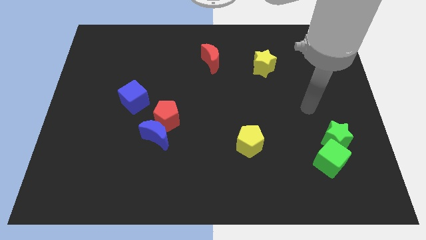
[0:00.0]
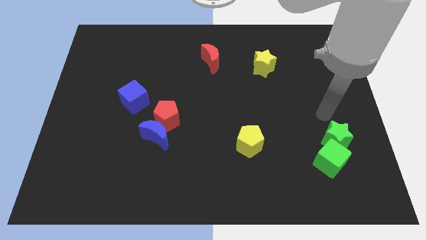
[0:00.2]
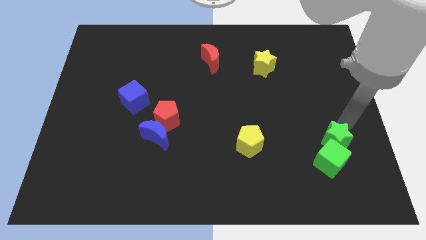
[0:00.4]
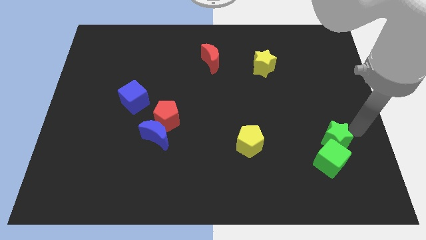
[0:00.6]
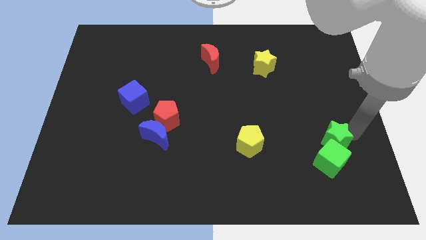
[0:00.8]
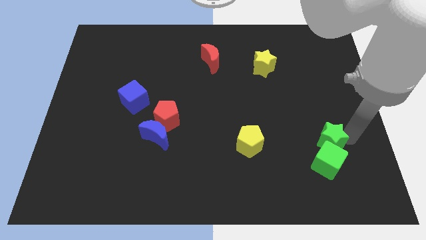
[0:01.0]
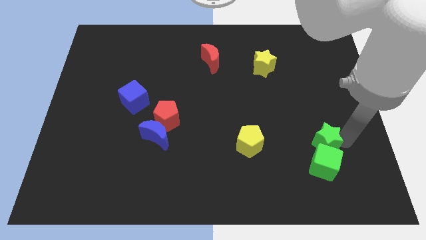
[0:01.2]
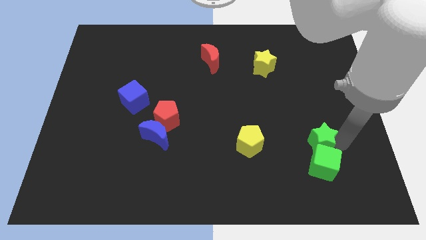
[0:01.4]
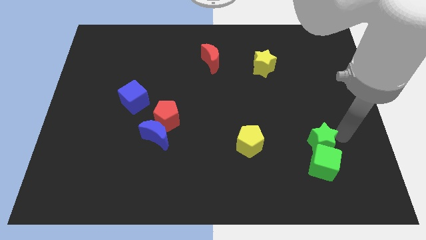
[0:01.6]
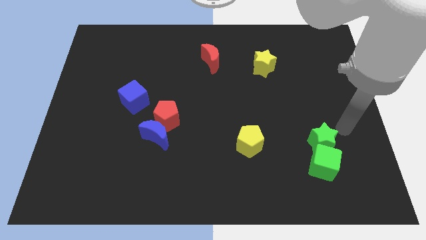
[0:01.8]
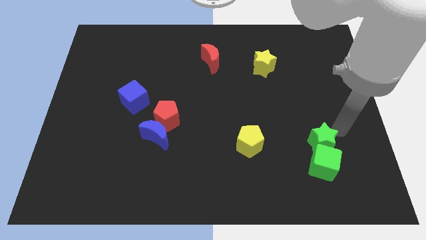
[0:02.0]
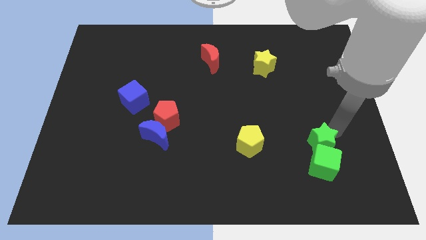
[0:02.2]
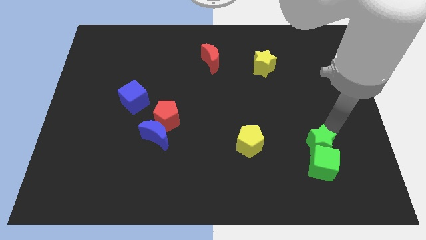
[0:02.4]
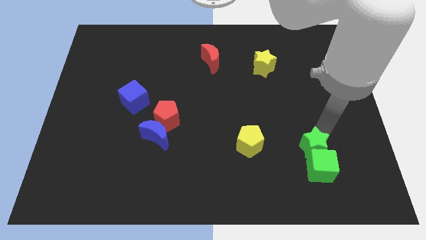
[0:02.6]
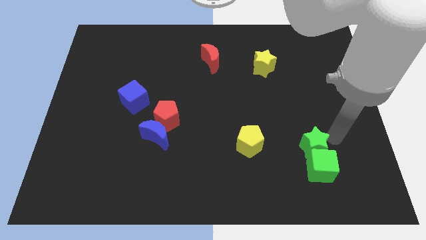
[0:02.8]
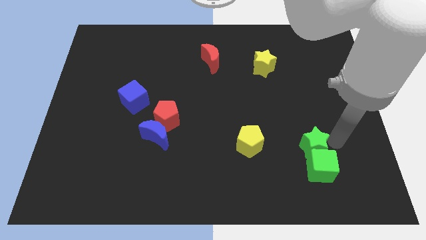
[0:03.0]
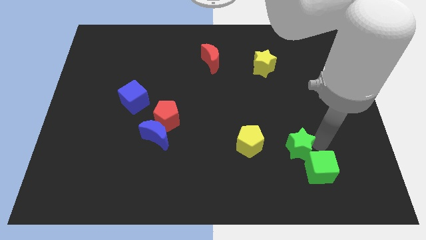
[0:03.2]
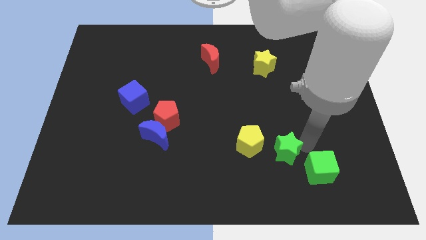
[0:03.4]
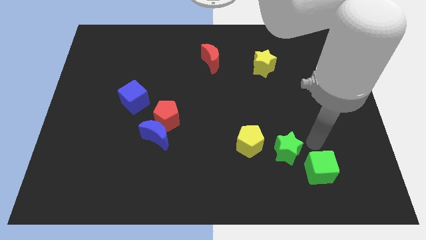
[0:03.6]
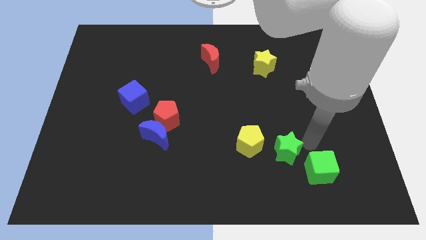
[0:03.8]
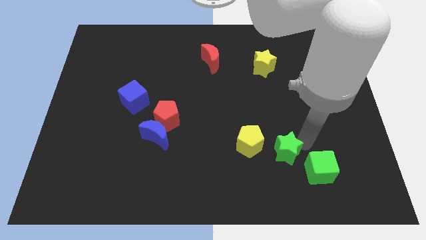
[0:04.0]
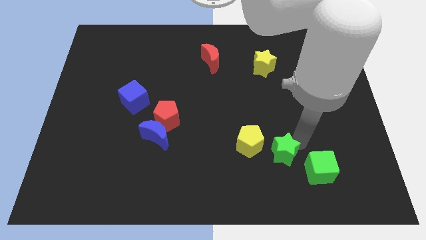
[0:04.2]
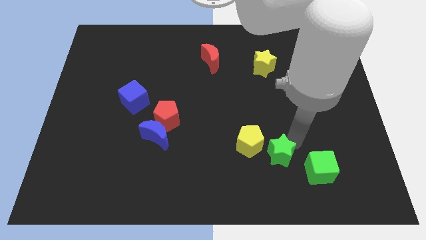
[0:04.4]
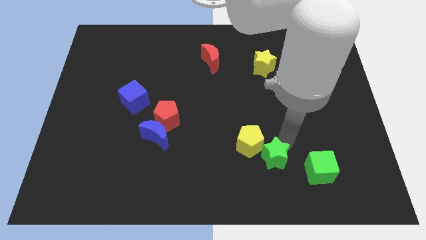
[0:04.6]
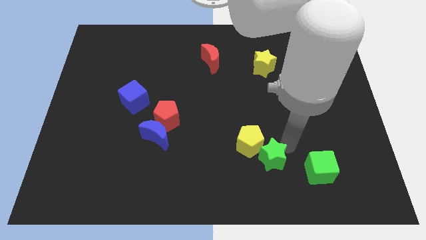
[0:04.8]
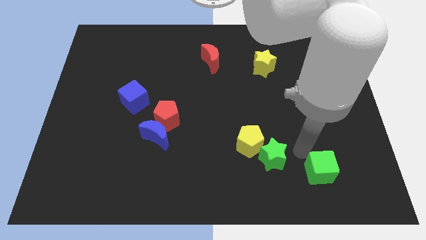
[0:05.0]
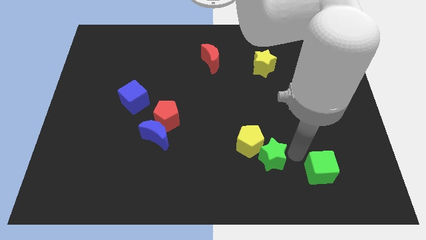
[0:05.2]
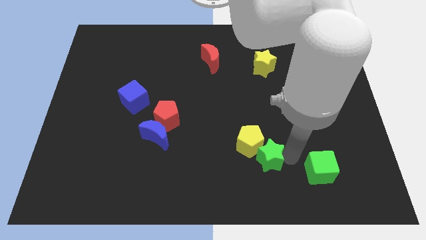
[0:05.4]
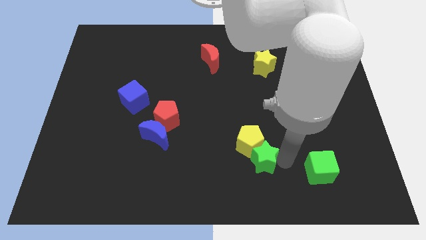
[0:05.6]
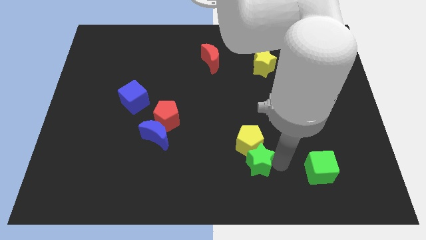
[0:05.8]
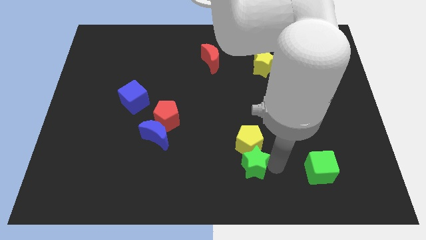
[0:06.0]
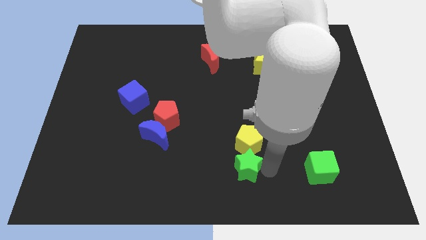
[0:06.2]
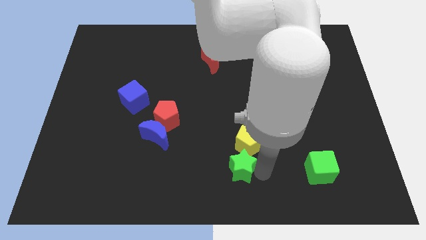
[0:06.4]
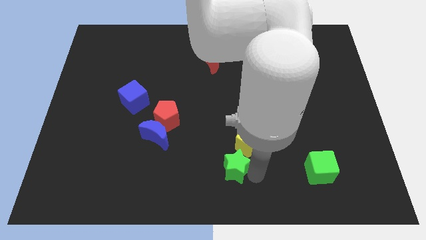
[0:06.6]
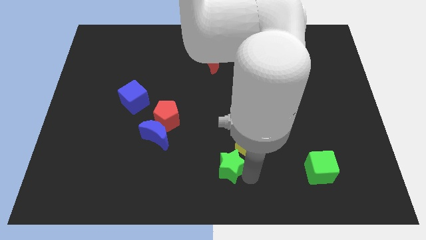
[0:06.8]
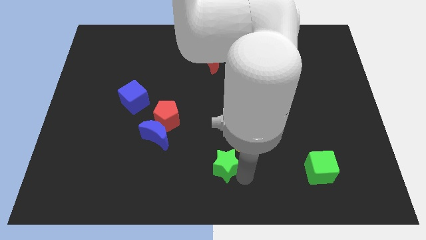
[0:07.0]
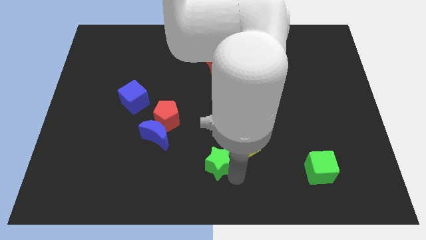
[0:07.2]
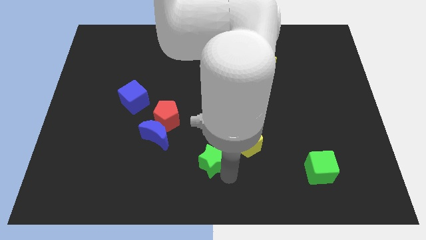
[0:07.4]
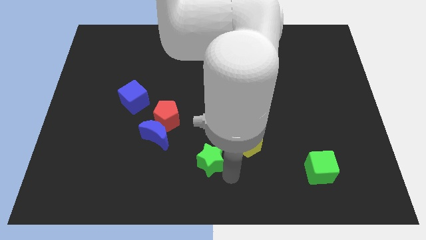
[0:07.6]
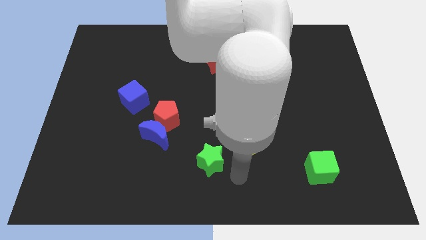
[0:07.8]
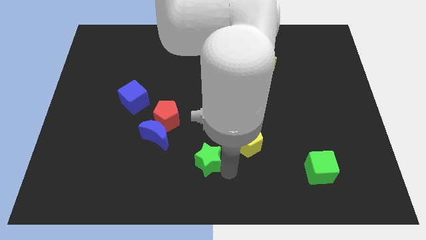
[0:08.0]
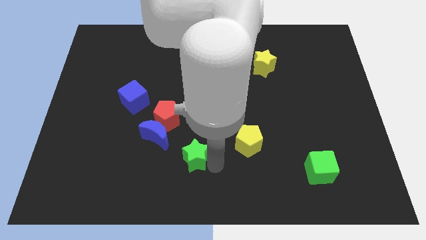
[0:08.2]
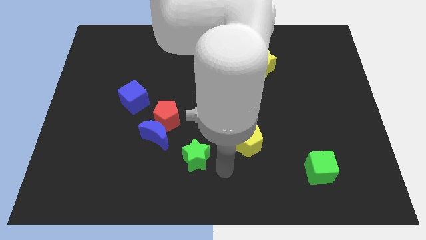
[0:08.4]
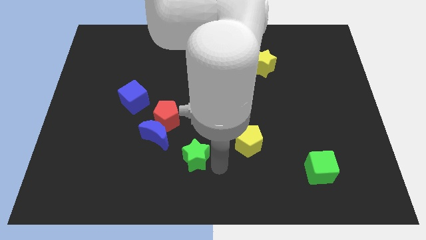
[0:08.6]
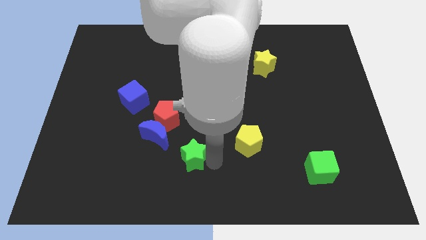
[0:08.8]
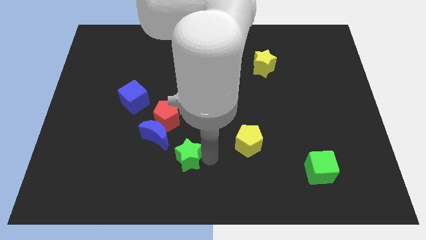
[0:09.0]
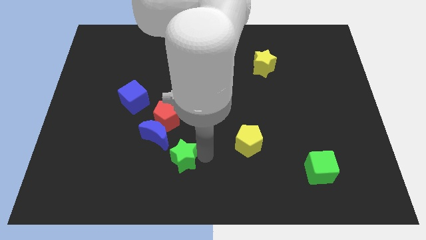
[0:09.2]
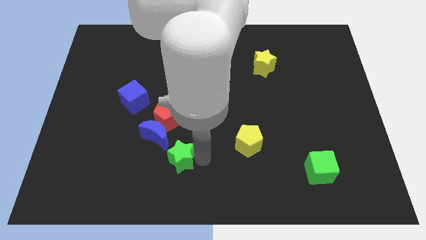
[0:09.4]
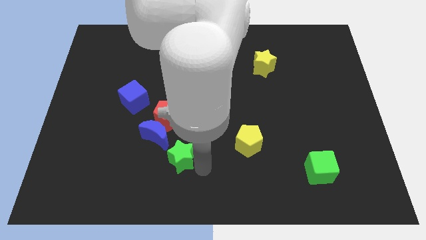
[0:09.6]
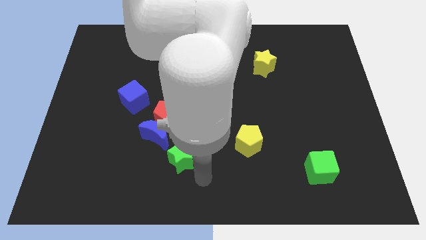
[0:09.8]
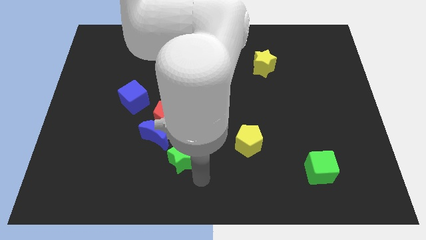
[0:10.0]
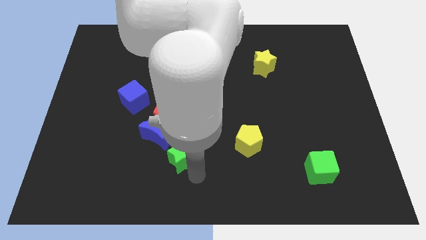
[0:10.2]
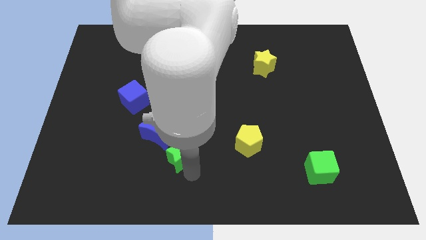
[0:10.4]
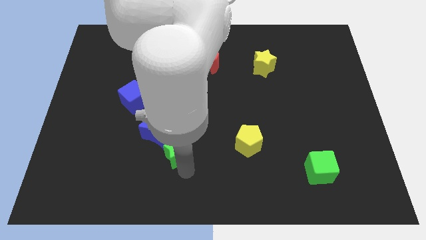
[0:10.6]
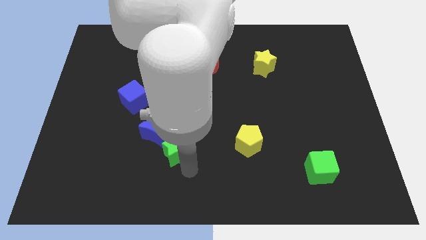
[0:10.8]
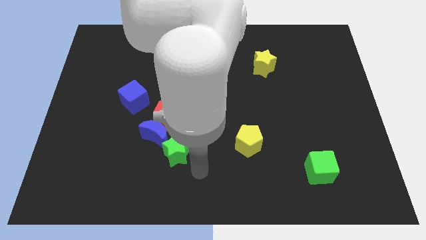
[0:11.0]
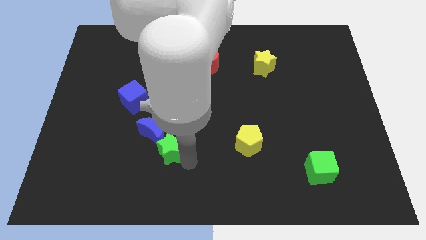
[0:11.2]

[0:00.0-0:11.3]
push the green star close to the blue moon

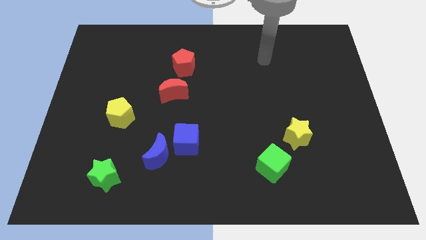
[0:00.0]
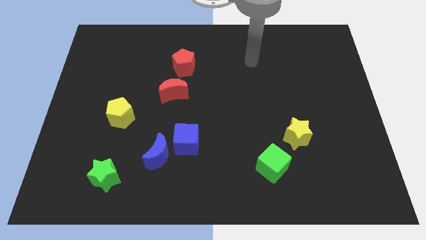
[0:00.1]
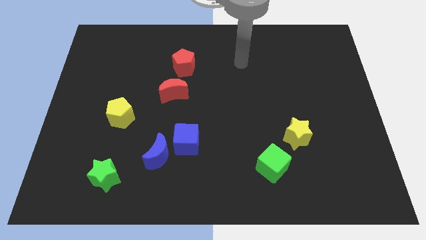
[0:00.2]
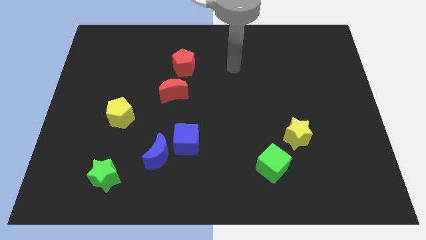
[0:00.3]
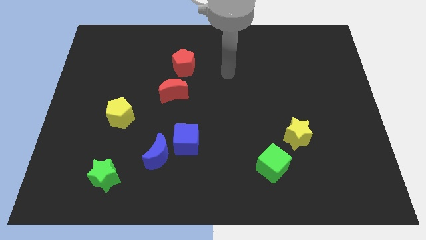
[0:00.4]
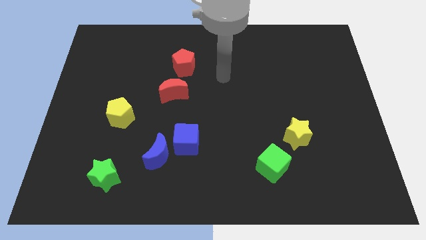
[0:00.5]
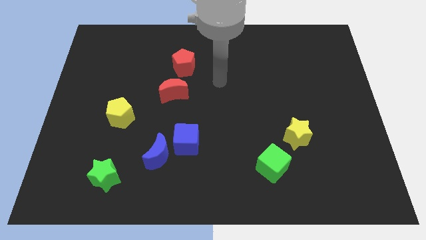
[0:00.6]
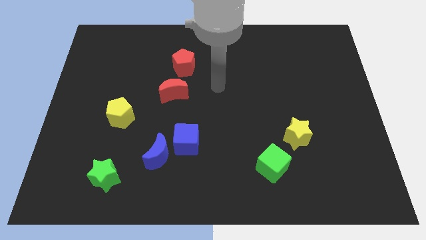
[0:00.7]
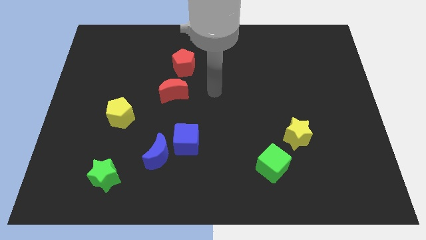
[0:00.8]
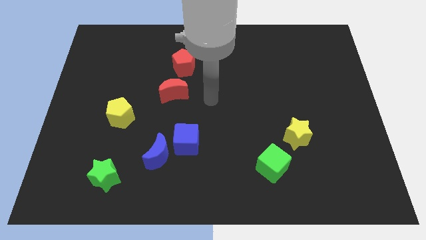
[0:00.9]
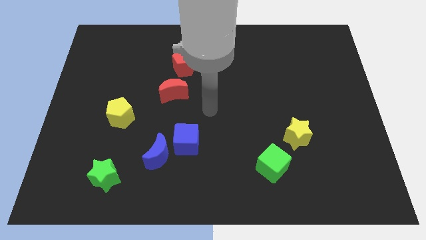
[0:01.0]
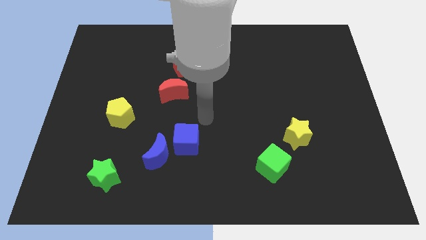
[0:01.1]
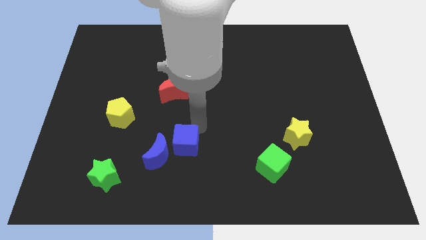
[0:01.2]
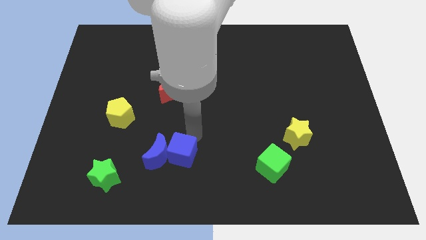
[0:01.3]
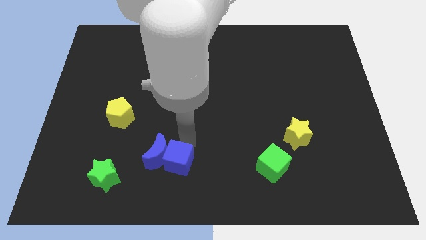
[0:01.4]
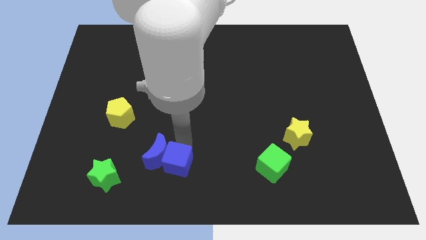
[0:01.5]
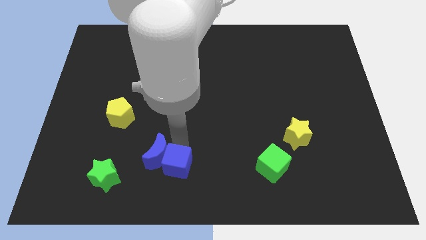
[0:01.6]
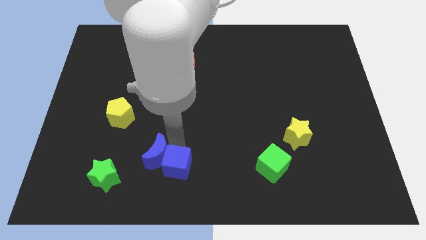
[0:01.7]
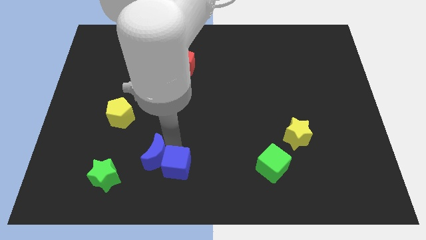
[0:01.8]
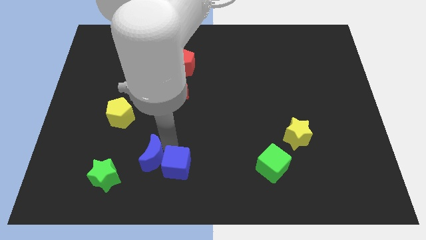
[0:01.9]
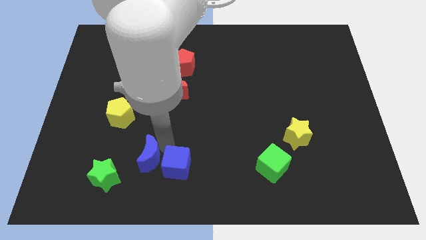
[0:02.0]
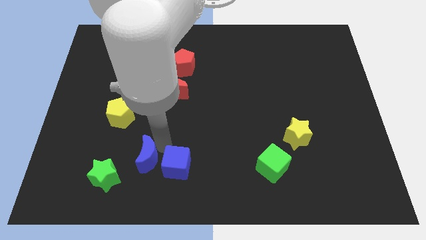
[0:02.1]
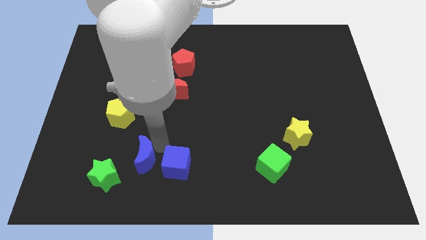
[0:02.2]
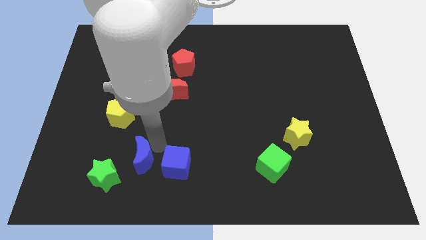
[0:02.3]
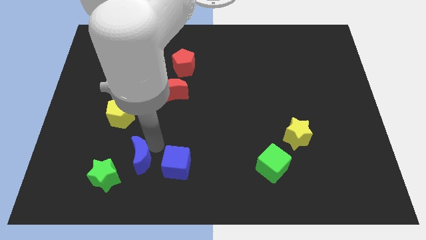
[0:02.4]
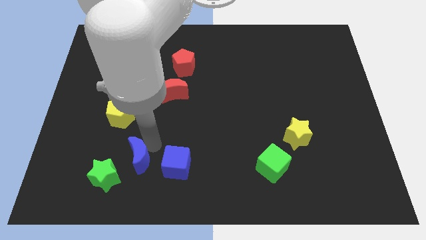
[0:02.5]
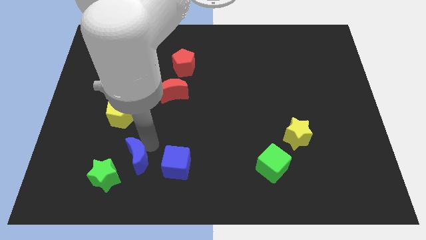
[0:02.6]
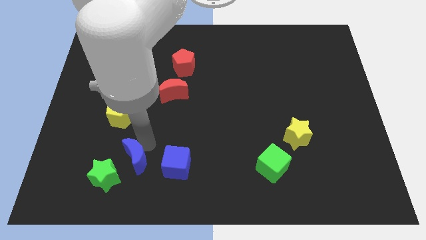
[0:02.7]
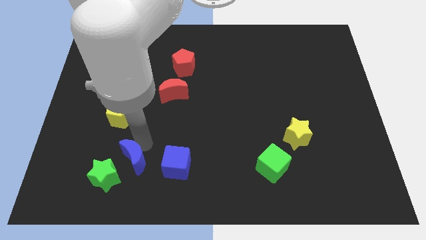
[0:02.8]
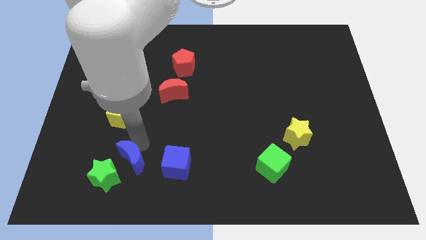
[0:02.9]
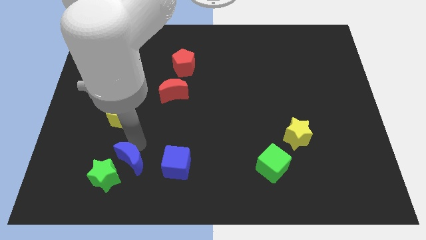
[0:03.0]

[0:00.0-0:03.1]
move the blue moon next to the green star
